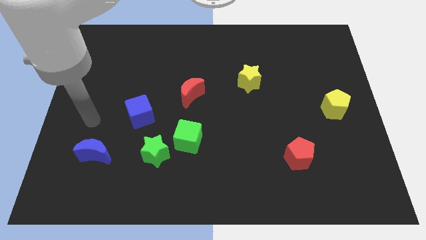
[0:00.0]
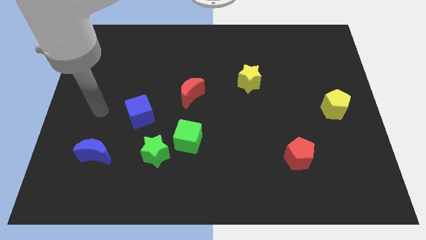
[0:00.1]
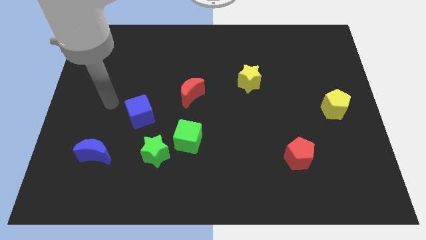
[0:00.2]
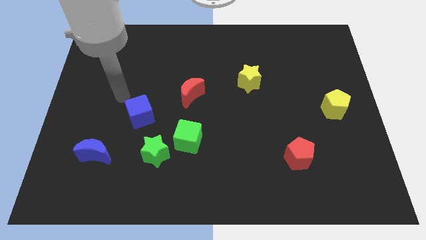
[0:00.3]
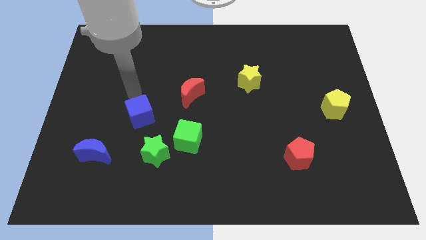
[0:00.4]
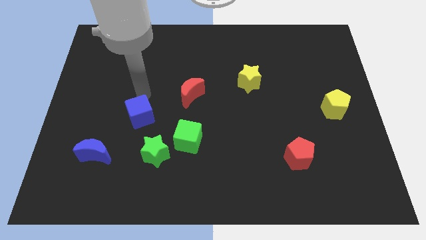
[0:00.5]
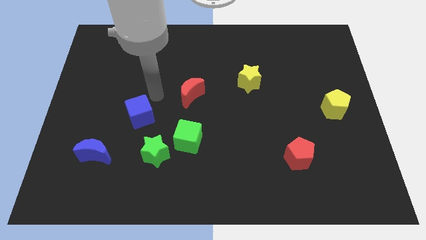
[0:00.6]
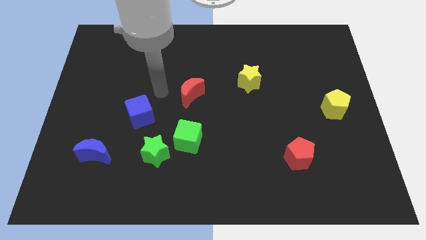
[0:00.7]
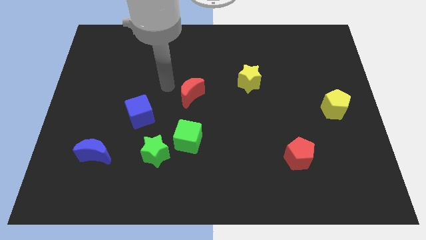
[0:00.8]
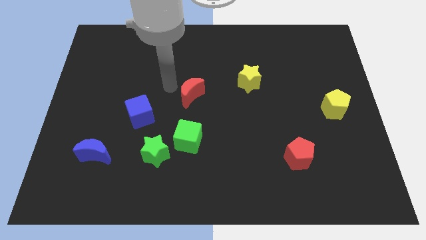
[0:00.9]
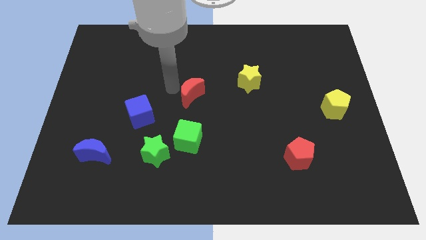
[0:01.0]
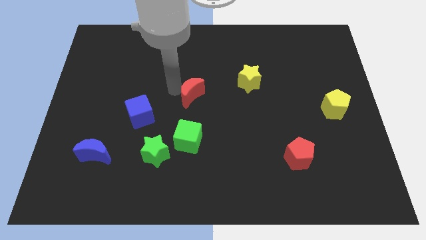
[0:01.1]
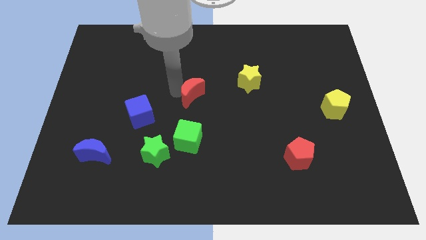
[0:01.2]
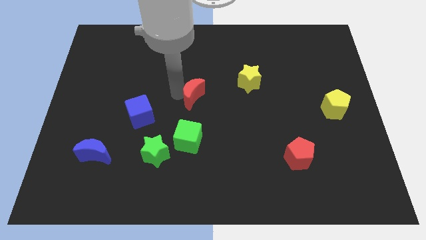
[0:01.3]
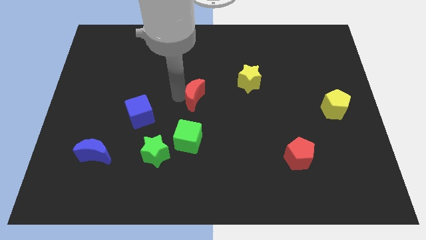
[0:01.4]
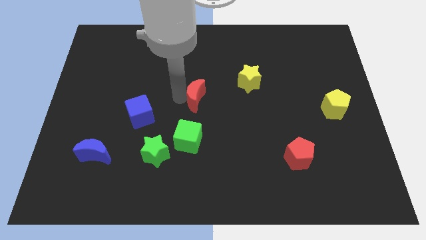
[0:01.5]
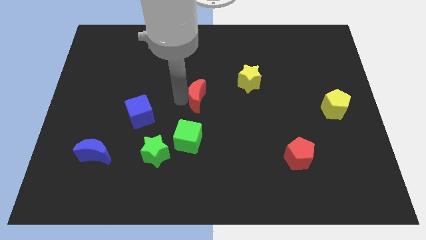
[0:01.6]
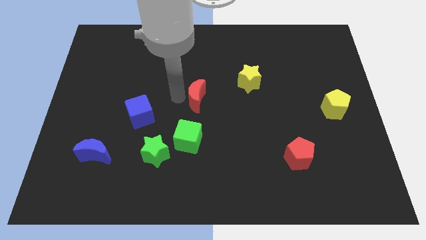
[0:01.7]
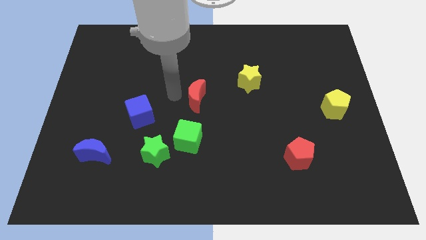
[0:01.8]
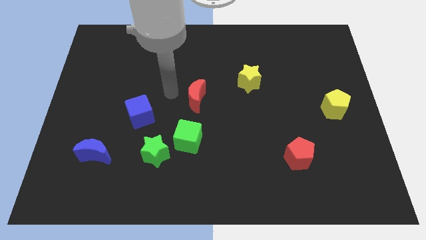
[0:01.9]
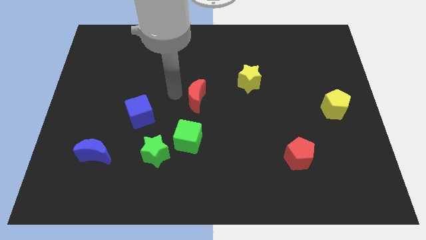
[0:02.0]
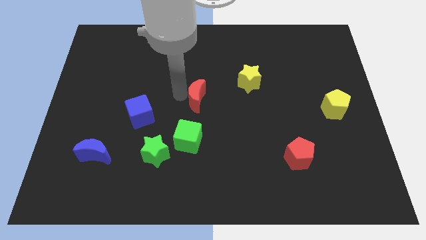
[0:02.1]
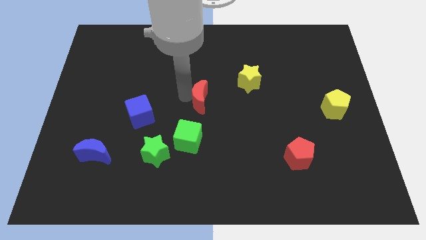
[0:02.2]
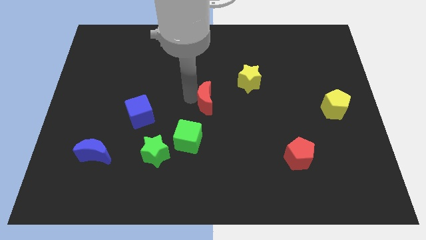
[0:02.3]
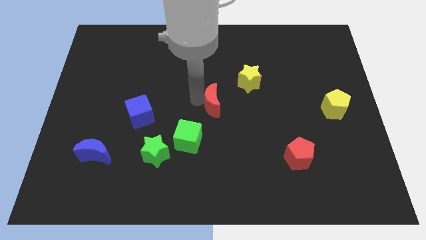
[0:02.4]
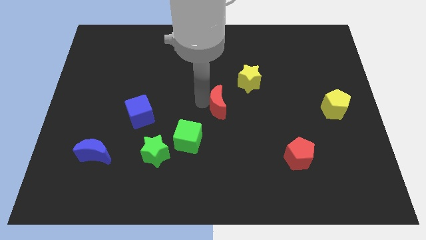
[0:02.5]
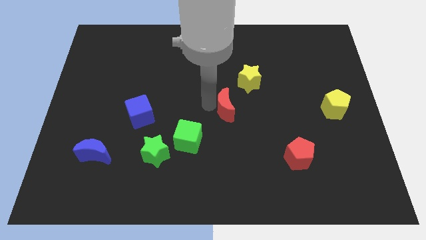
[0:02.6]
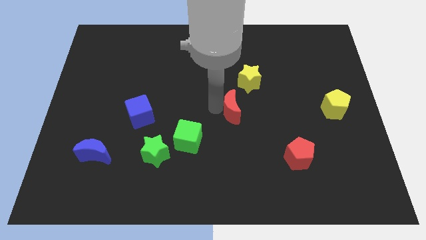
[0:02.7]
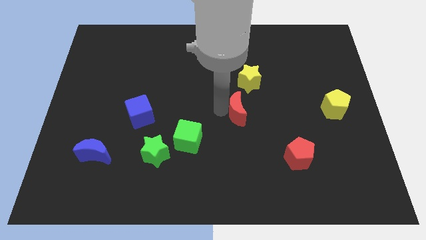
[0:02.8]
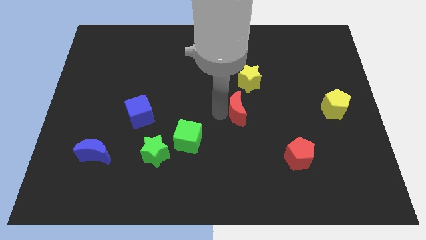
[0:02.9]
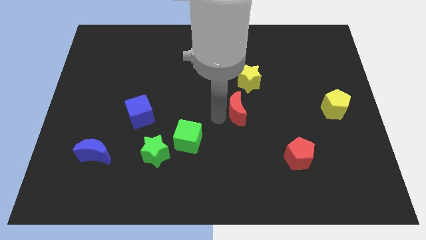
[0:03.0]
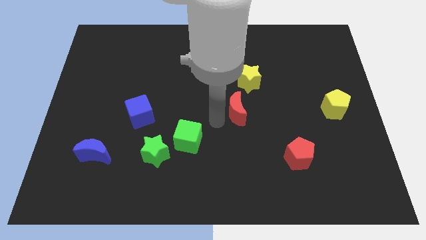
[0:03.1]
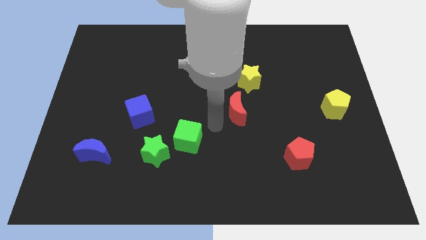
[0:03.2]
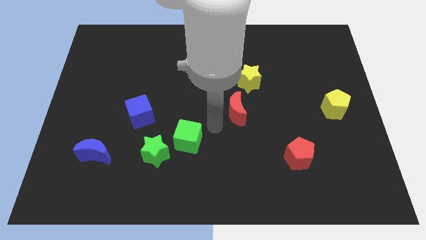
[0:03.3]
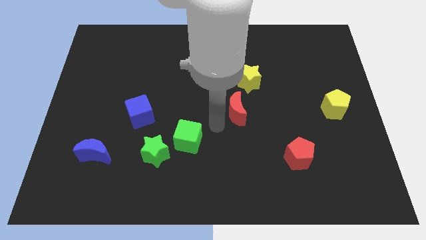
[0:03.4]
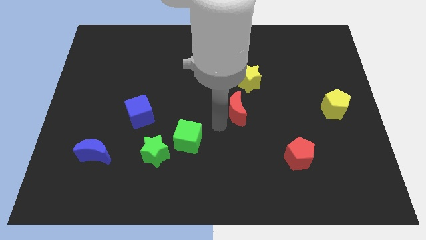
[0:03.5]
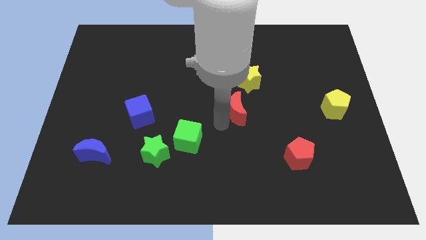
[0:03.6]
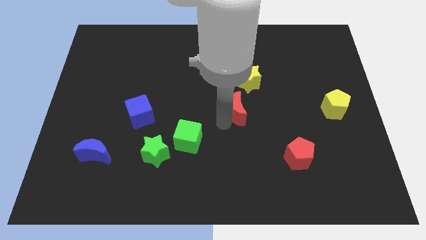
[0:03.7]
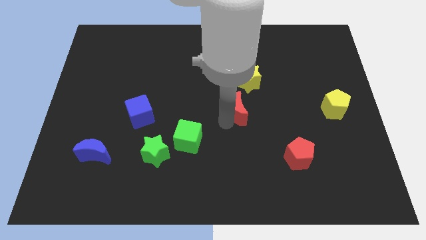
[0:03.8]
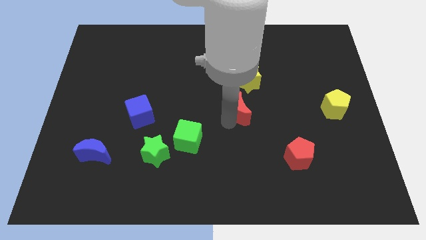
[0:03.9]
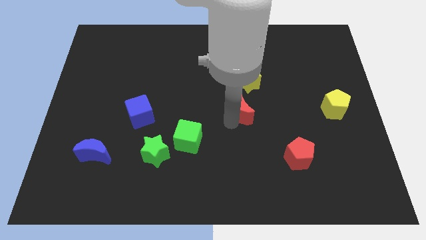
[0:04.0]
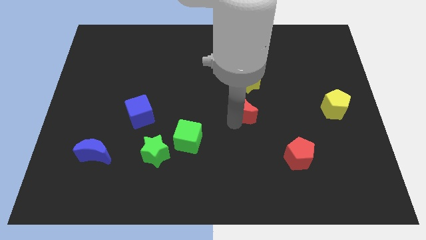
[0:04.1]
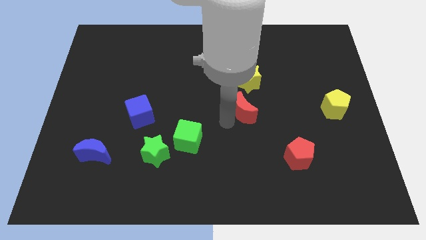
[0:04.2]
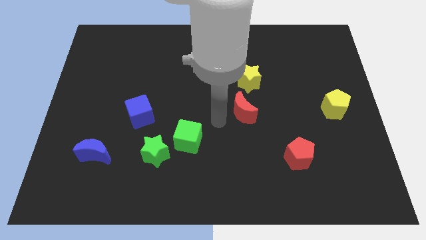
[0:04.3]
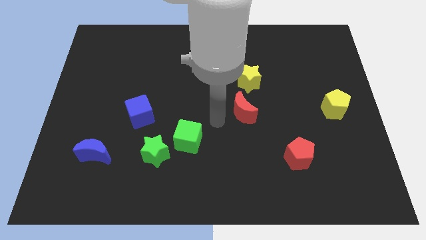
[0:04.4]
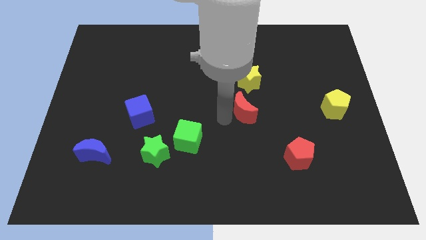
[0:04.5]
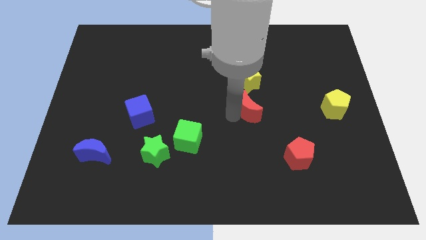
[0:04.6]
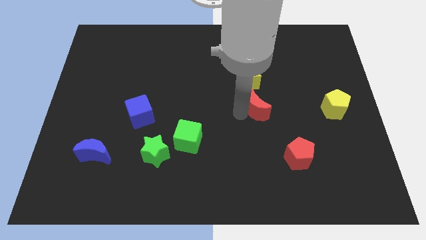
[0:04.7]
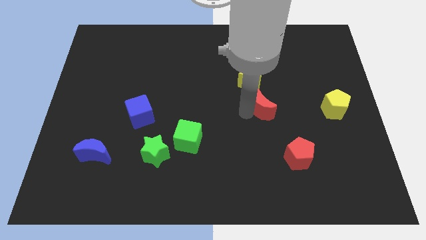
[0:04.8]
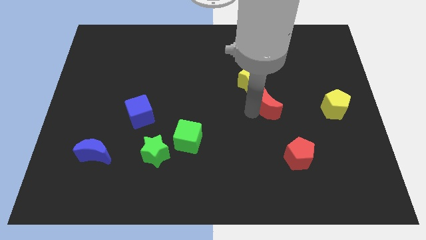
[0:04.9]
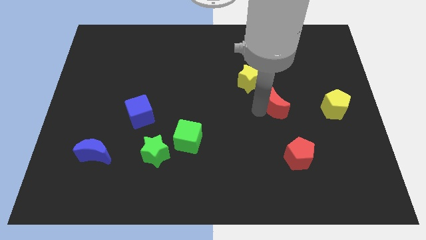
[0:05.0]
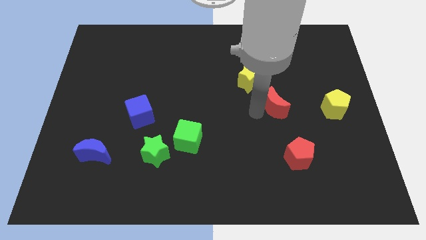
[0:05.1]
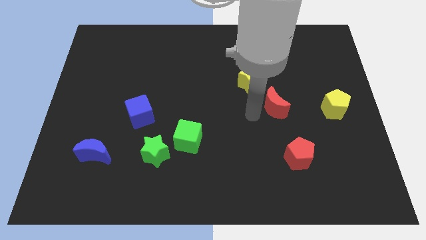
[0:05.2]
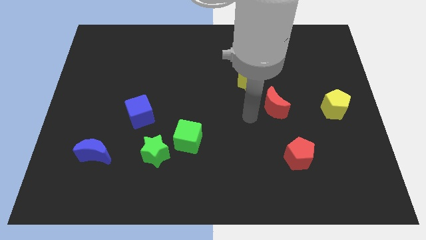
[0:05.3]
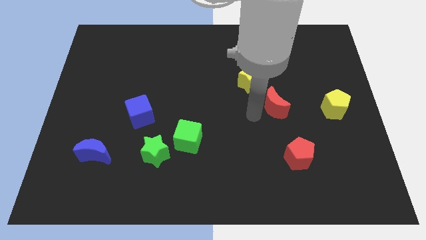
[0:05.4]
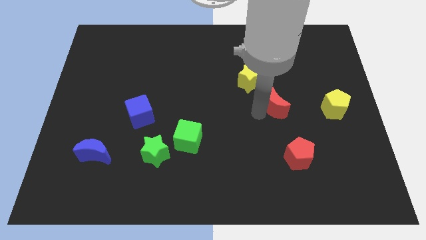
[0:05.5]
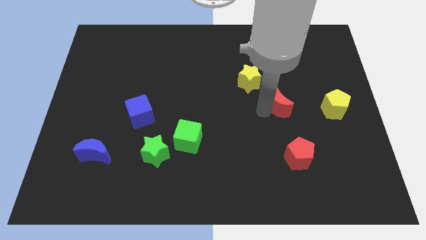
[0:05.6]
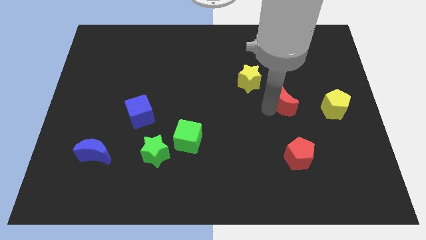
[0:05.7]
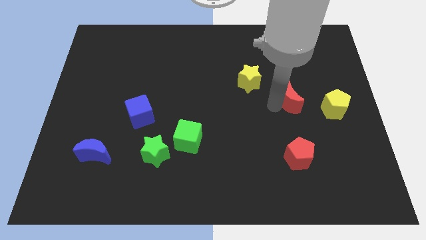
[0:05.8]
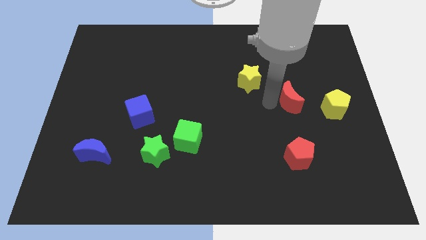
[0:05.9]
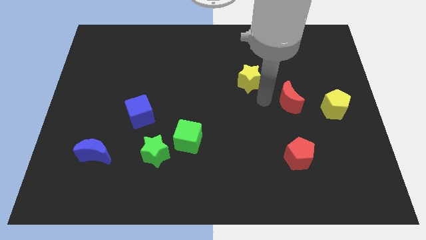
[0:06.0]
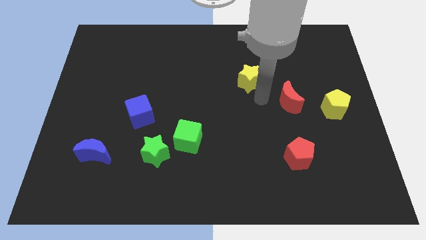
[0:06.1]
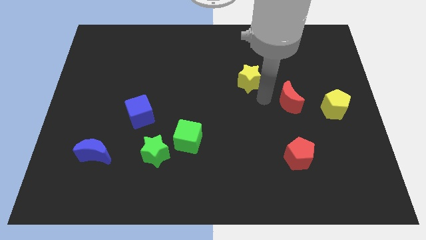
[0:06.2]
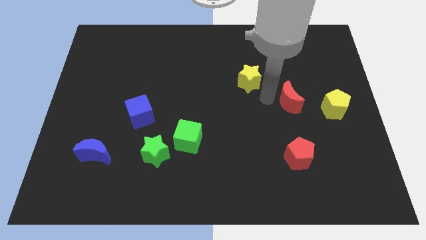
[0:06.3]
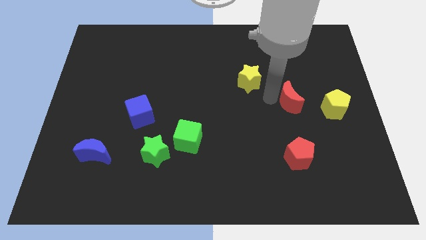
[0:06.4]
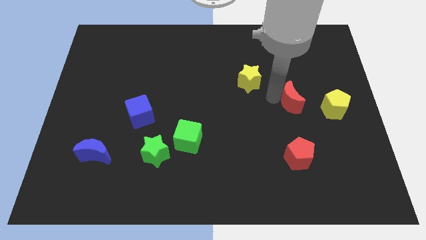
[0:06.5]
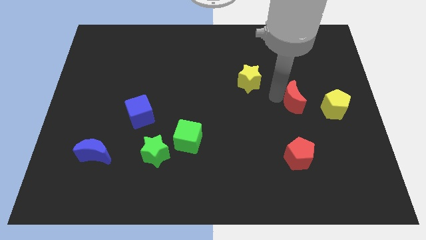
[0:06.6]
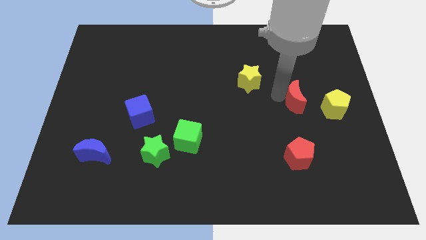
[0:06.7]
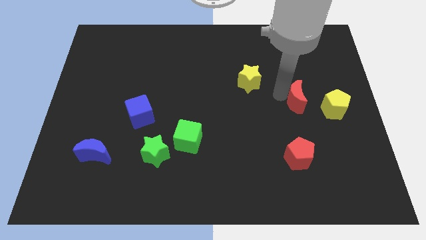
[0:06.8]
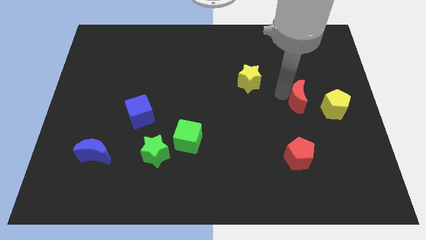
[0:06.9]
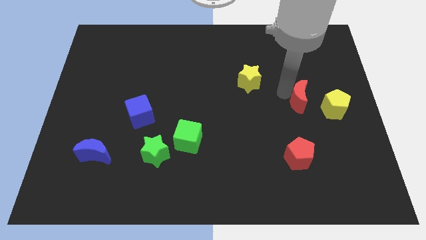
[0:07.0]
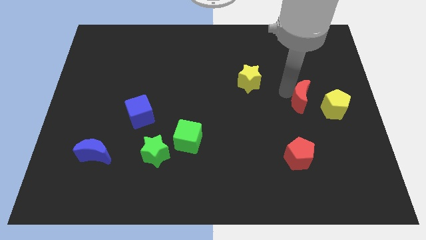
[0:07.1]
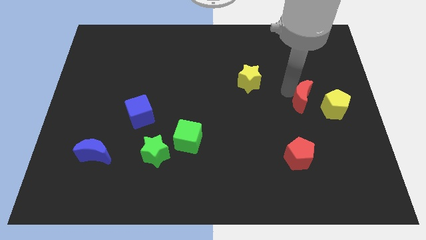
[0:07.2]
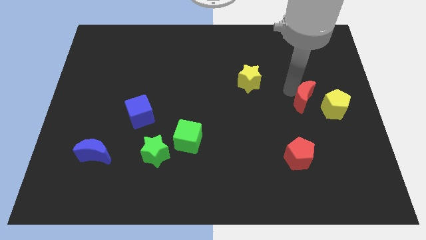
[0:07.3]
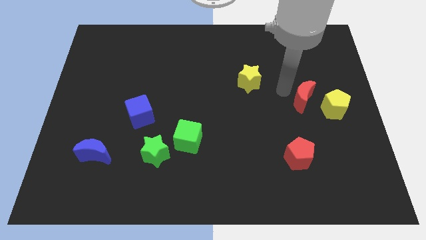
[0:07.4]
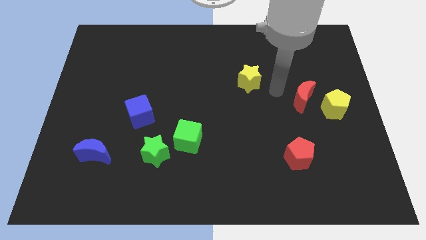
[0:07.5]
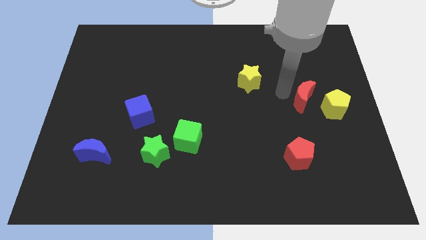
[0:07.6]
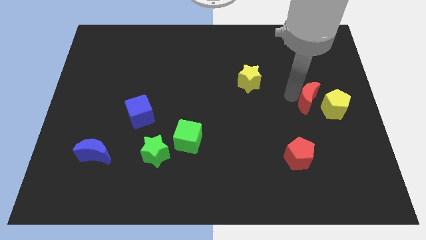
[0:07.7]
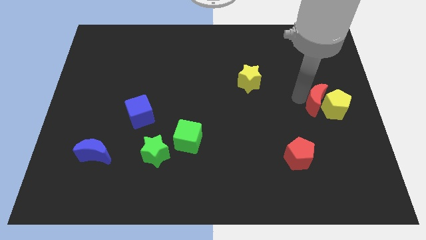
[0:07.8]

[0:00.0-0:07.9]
put the red moon next to the yellow pentagon
